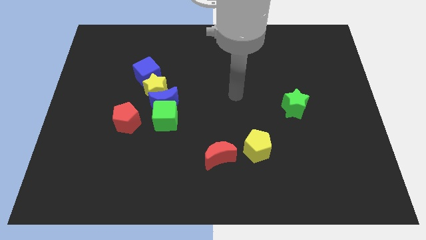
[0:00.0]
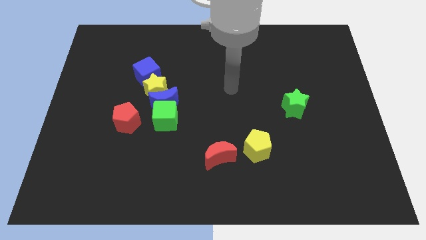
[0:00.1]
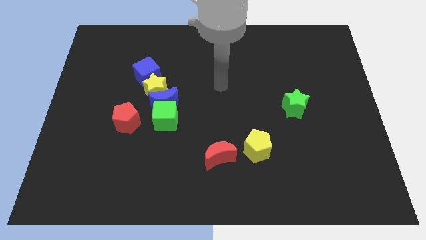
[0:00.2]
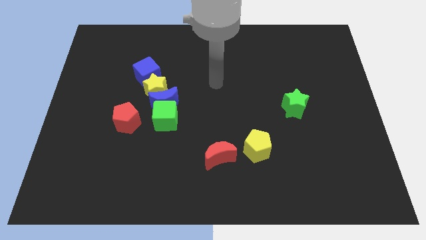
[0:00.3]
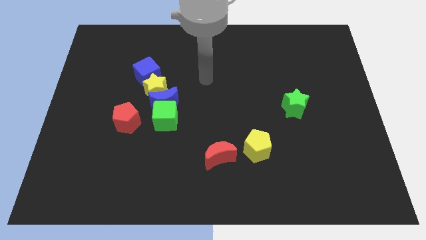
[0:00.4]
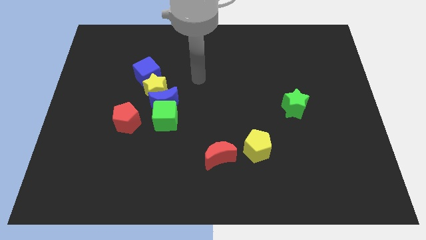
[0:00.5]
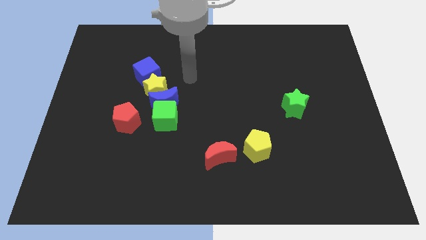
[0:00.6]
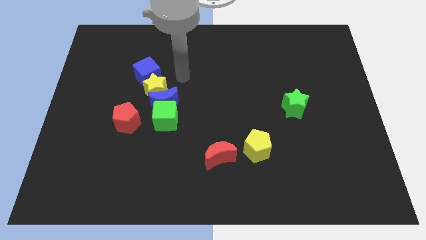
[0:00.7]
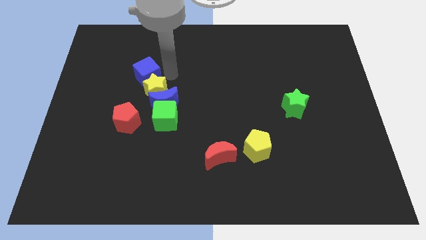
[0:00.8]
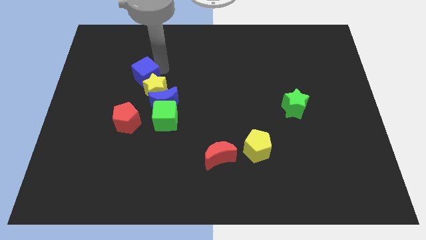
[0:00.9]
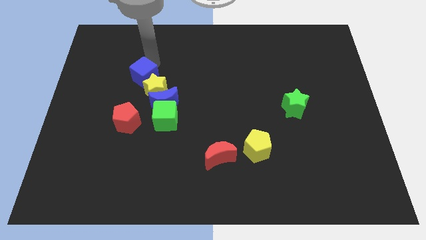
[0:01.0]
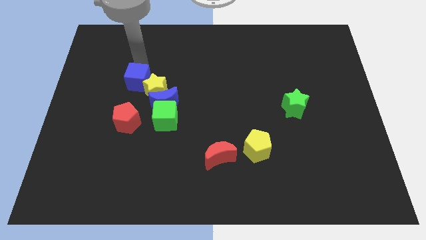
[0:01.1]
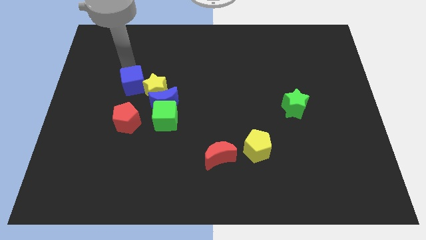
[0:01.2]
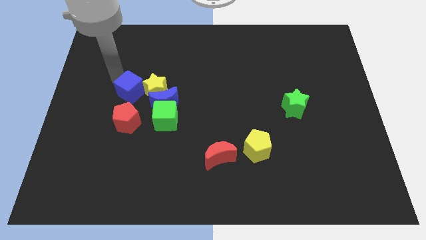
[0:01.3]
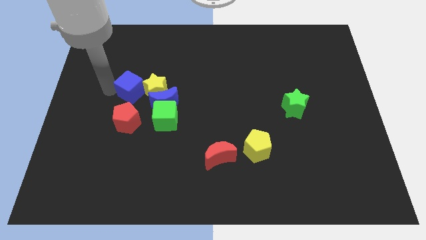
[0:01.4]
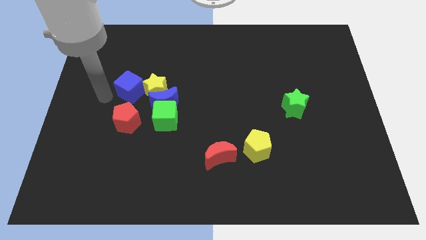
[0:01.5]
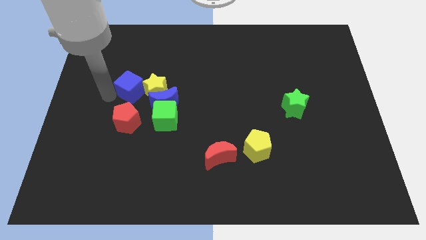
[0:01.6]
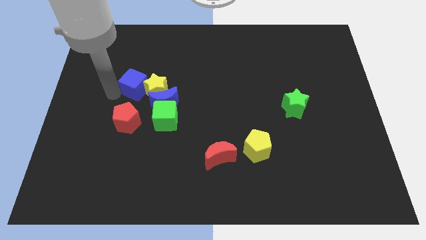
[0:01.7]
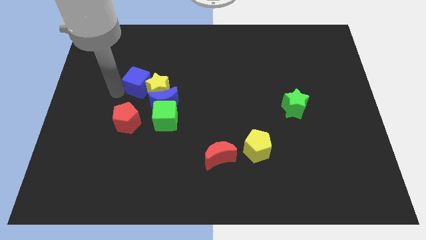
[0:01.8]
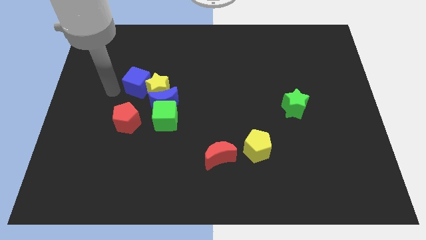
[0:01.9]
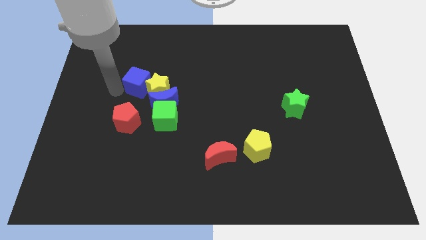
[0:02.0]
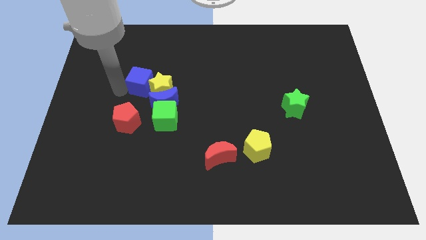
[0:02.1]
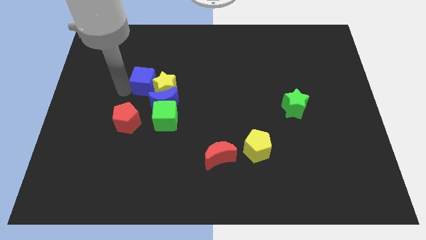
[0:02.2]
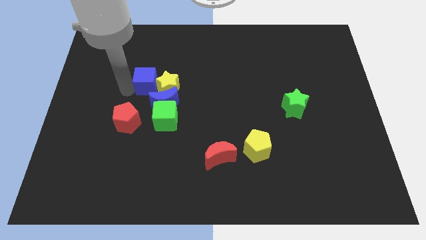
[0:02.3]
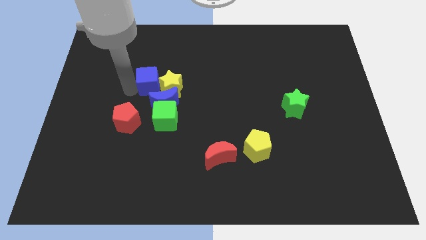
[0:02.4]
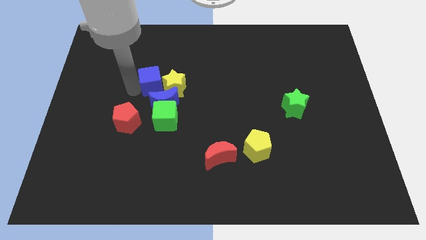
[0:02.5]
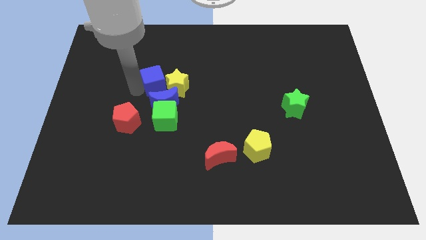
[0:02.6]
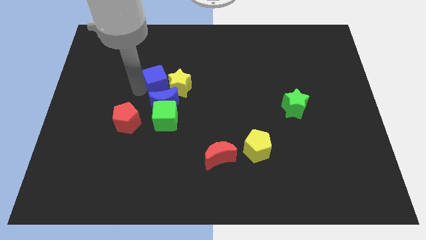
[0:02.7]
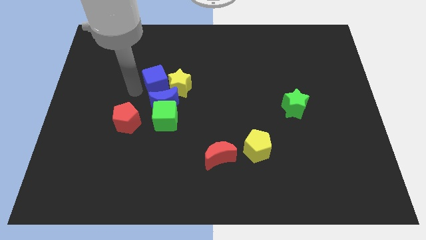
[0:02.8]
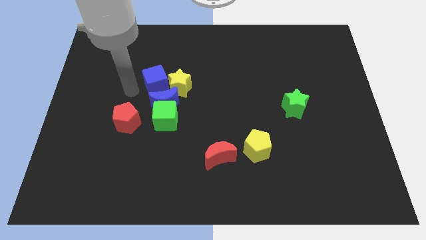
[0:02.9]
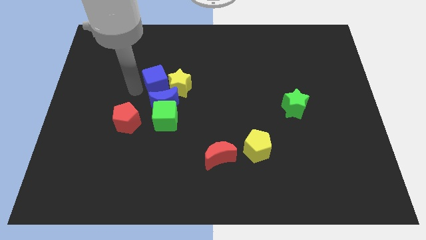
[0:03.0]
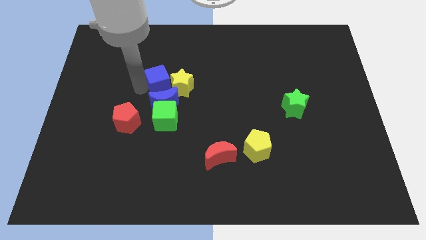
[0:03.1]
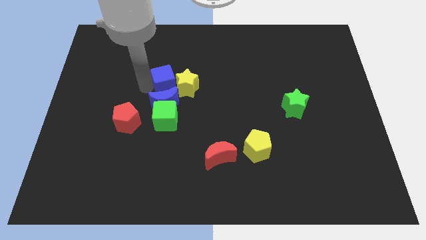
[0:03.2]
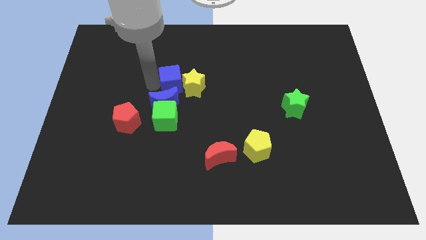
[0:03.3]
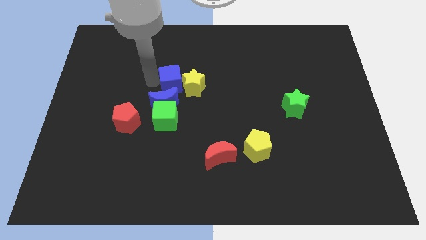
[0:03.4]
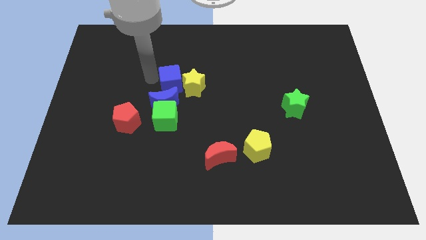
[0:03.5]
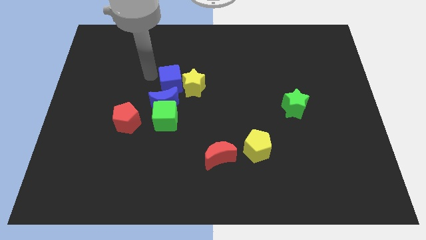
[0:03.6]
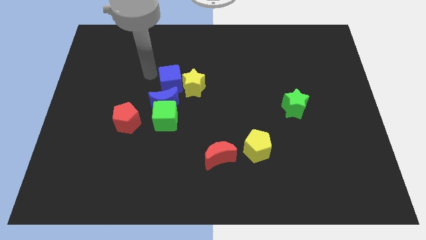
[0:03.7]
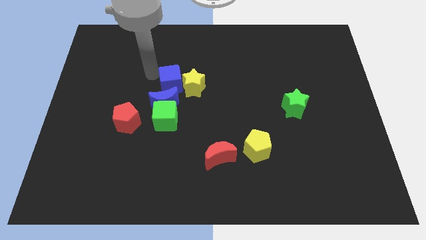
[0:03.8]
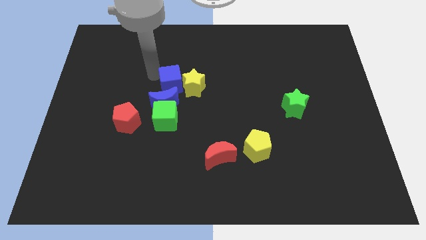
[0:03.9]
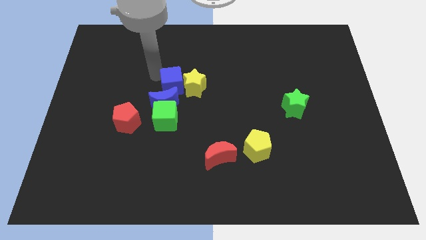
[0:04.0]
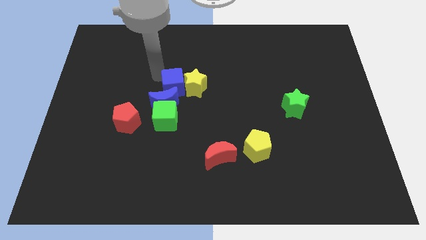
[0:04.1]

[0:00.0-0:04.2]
push the blue cube somewhat diagonally down and right

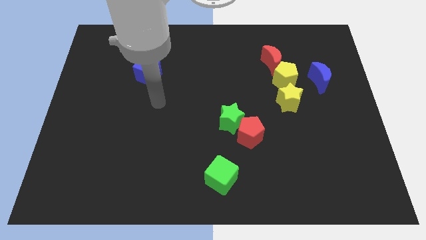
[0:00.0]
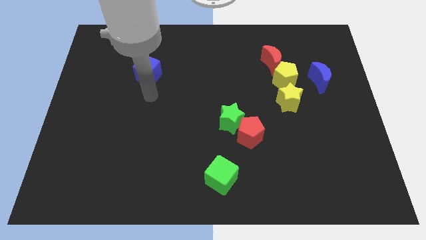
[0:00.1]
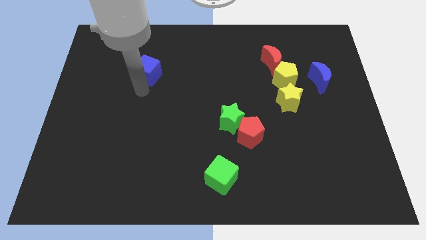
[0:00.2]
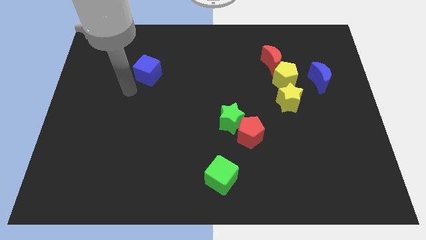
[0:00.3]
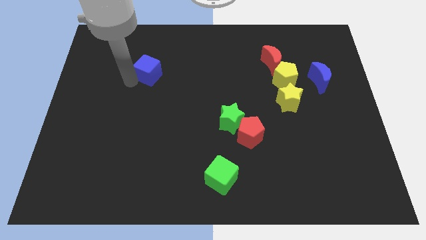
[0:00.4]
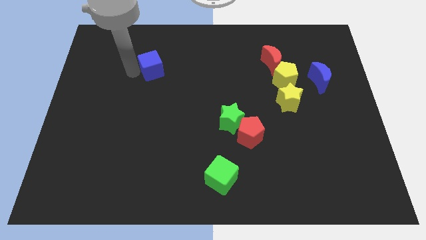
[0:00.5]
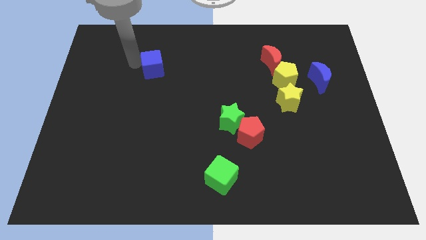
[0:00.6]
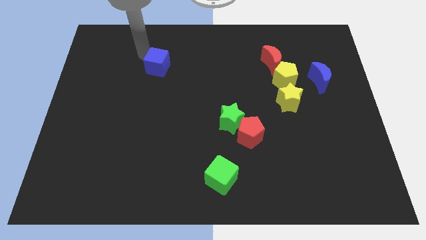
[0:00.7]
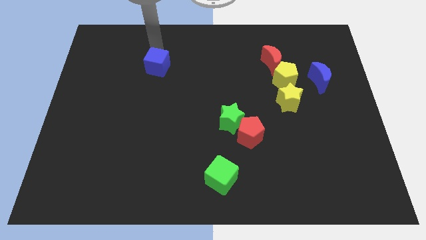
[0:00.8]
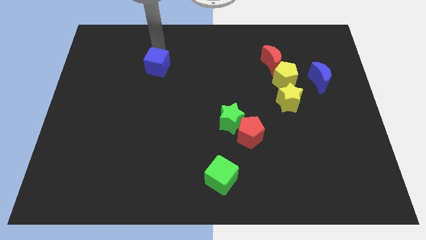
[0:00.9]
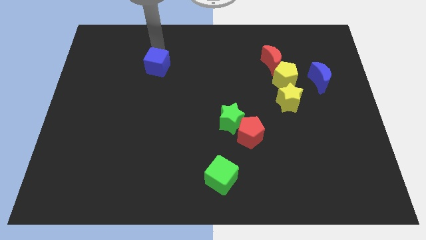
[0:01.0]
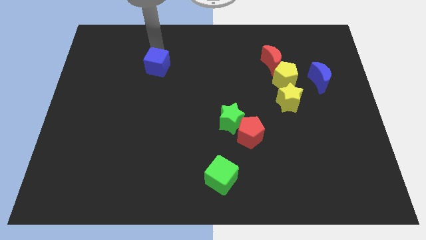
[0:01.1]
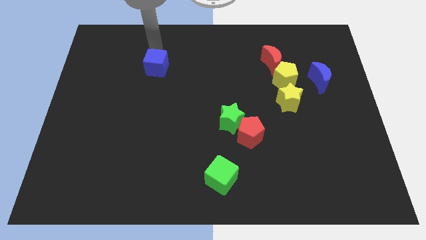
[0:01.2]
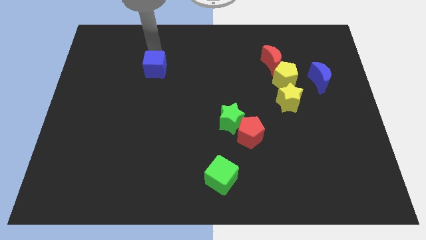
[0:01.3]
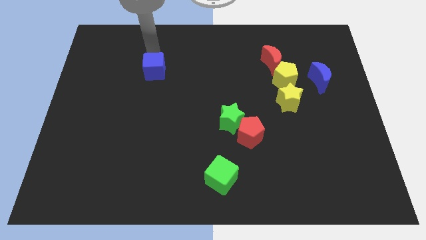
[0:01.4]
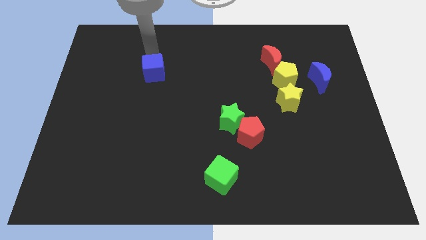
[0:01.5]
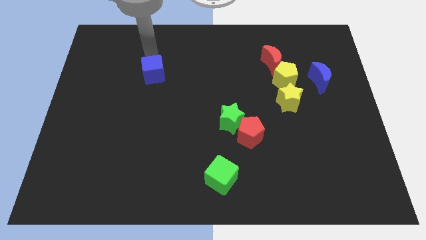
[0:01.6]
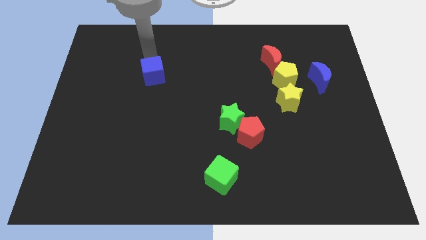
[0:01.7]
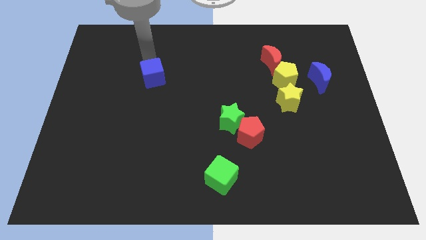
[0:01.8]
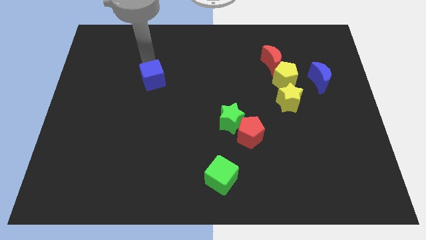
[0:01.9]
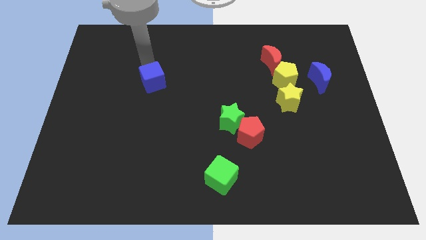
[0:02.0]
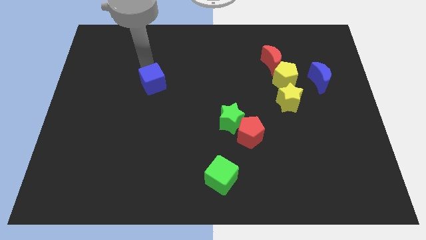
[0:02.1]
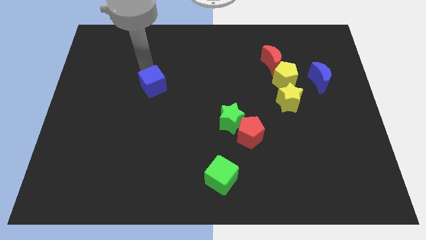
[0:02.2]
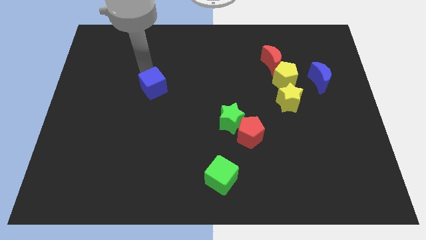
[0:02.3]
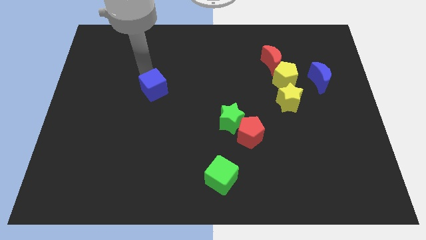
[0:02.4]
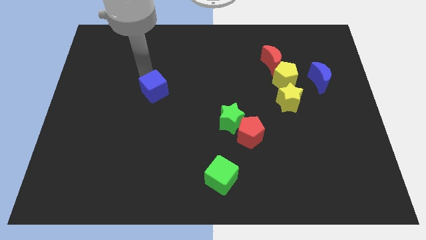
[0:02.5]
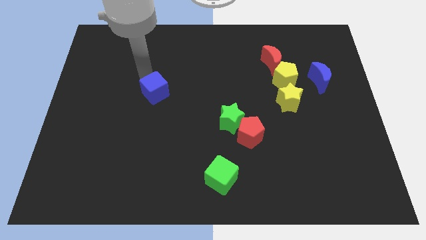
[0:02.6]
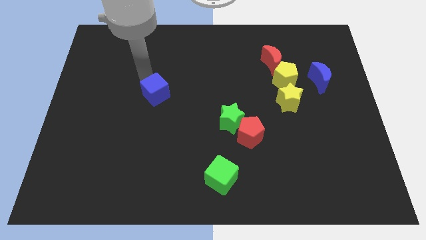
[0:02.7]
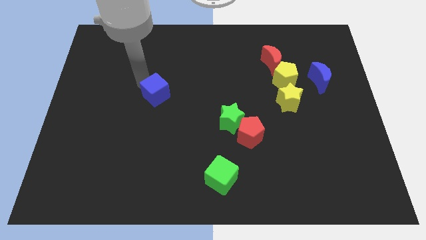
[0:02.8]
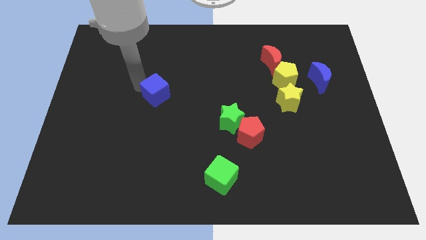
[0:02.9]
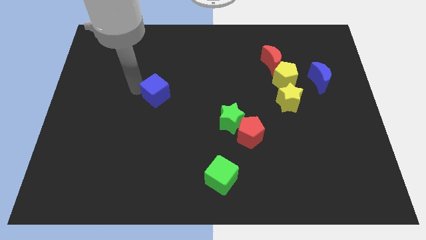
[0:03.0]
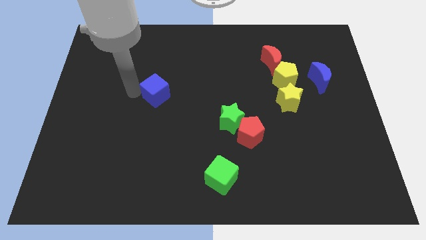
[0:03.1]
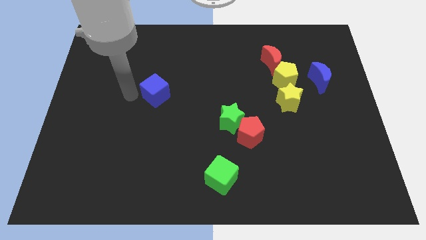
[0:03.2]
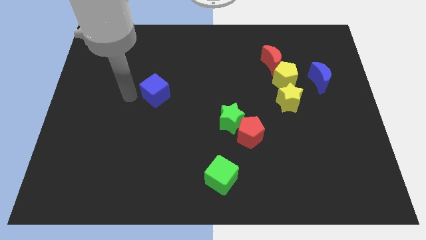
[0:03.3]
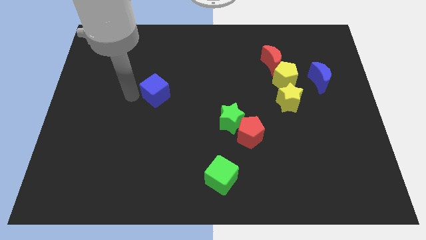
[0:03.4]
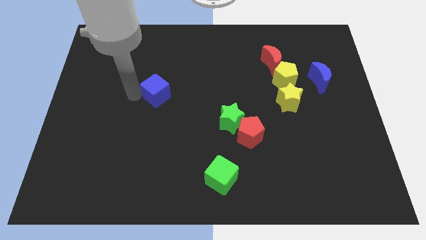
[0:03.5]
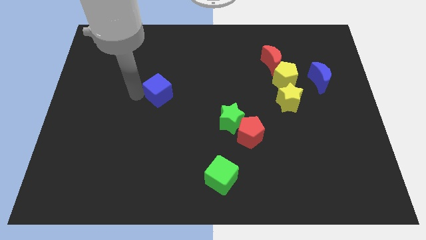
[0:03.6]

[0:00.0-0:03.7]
slightly move the blue cube down and then right
